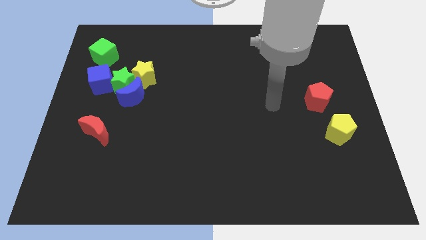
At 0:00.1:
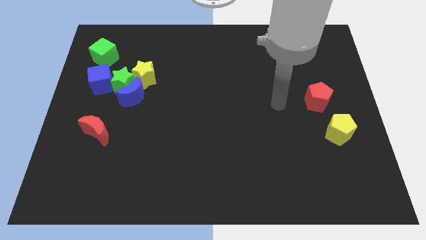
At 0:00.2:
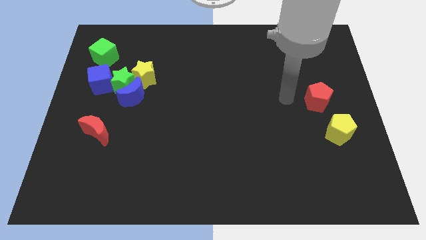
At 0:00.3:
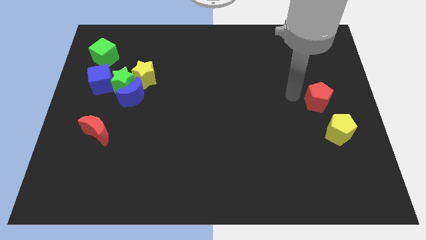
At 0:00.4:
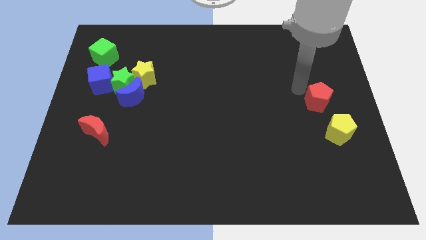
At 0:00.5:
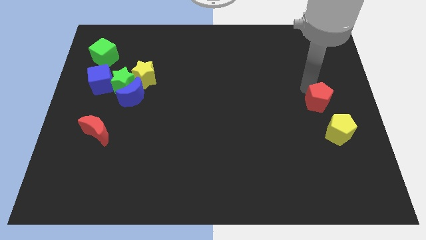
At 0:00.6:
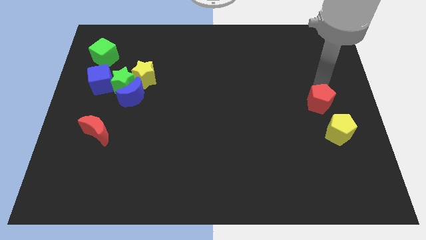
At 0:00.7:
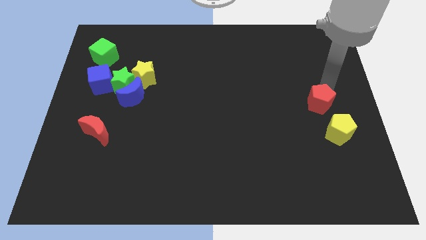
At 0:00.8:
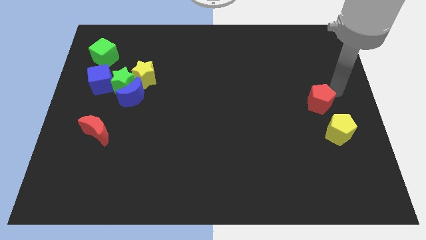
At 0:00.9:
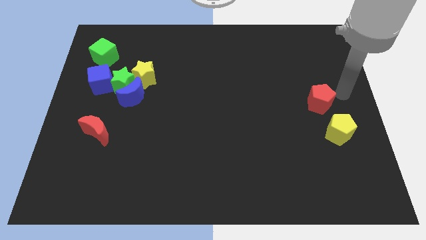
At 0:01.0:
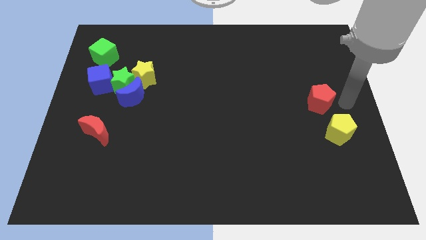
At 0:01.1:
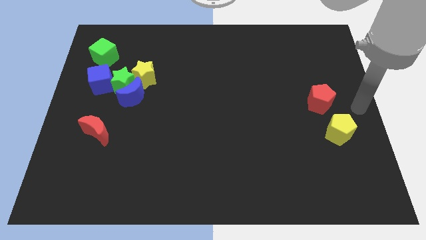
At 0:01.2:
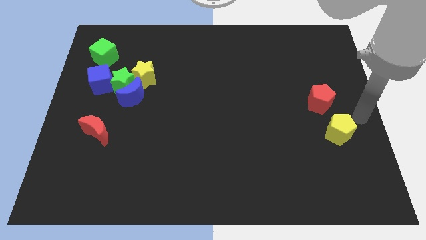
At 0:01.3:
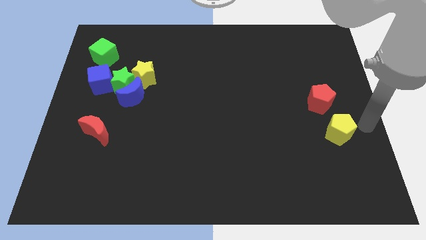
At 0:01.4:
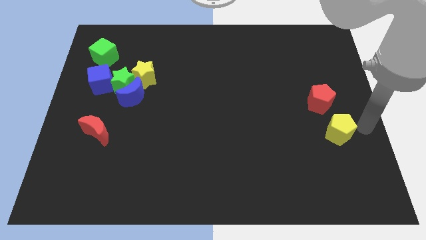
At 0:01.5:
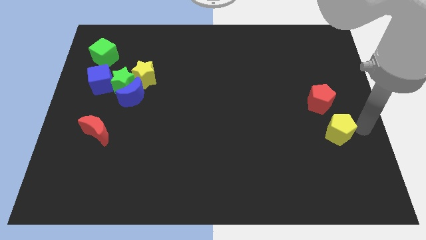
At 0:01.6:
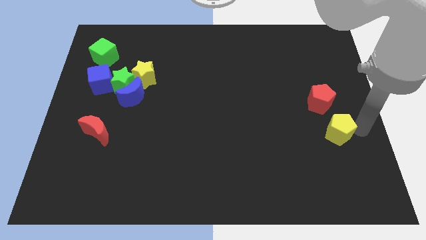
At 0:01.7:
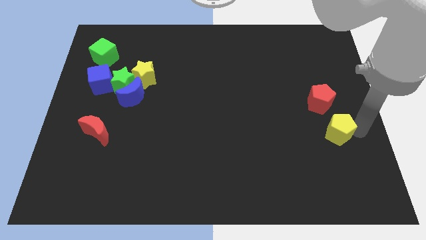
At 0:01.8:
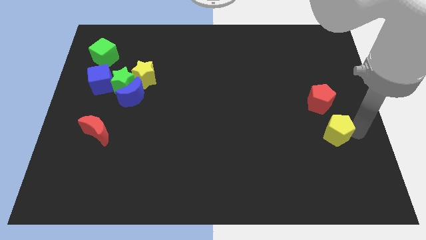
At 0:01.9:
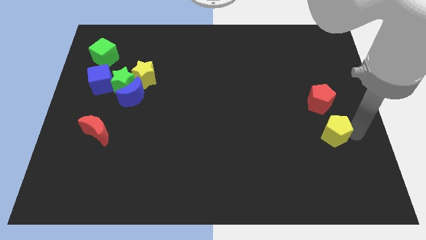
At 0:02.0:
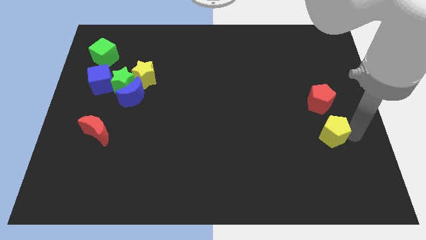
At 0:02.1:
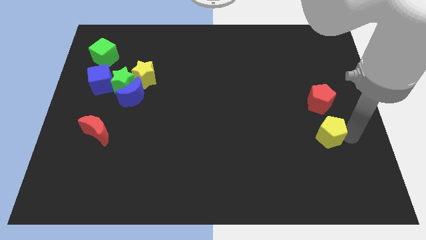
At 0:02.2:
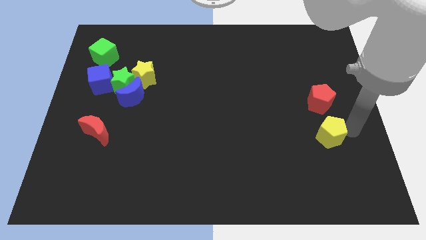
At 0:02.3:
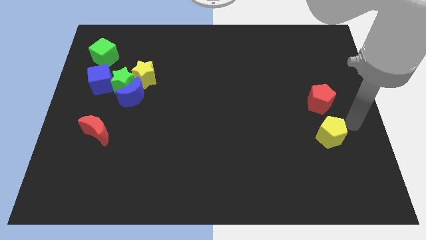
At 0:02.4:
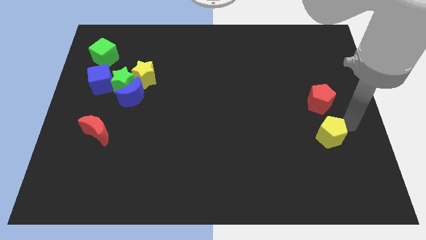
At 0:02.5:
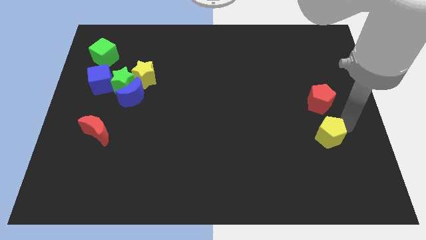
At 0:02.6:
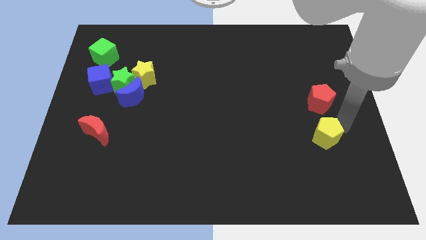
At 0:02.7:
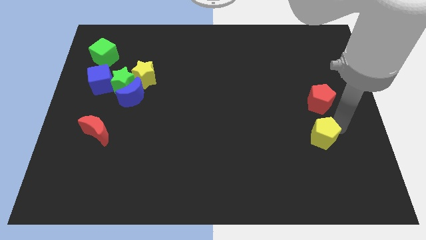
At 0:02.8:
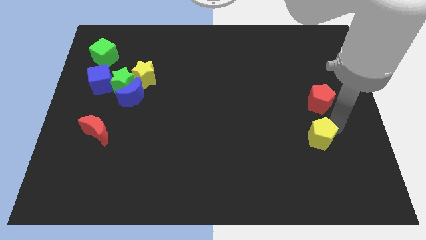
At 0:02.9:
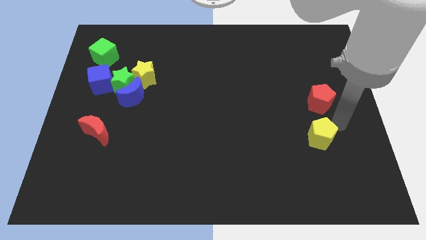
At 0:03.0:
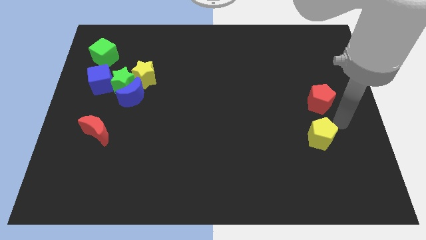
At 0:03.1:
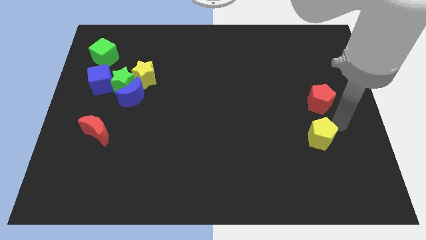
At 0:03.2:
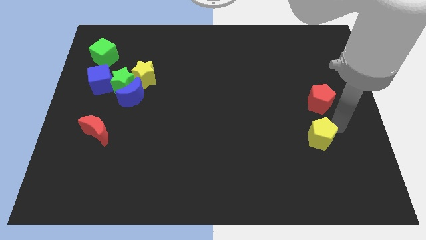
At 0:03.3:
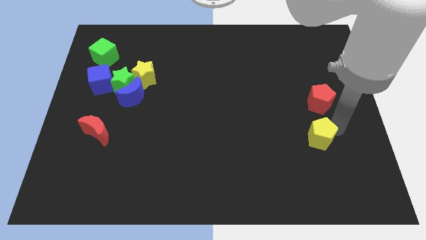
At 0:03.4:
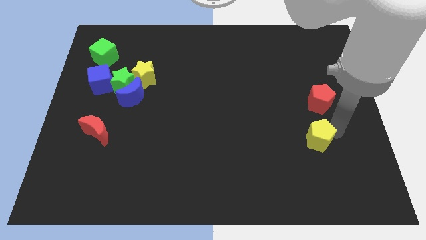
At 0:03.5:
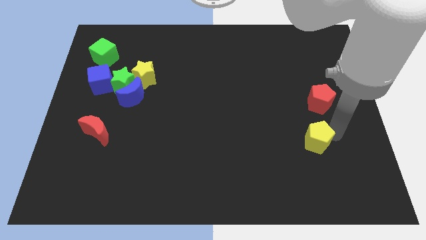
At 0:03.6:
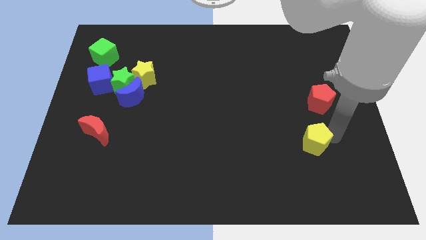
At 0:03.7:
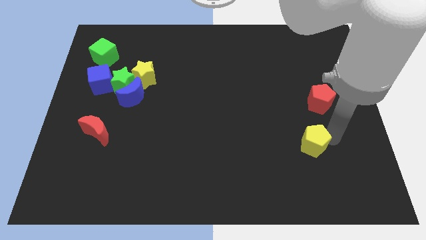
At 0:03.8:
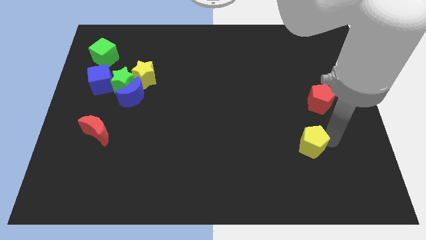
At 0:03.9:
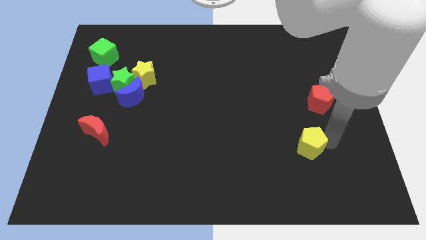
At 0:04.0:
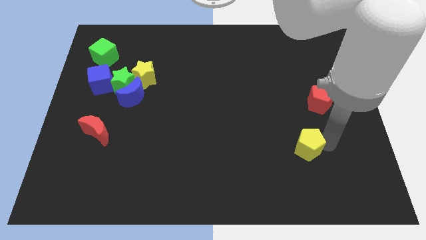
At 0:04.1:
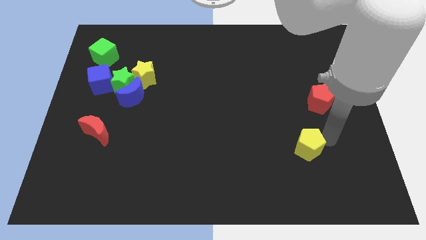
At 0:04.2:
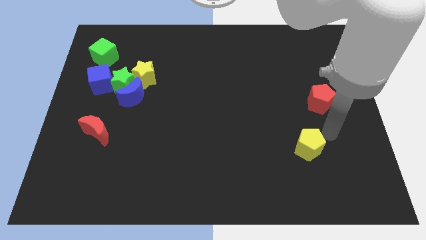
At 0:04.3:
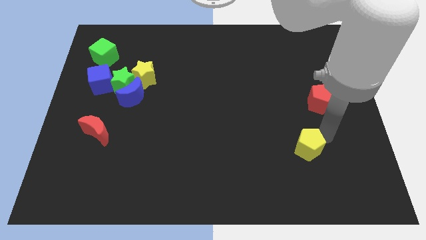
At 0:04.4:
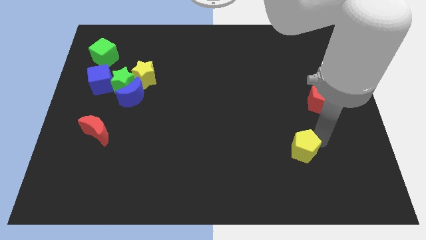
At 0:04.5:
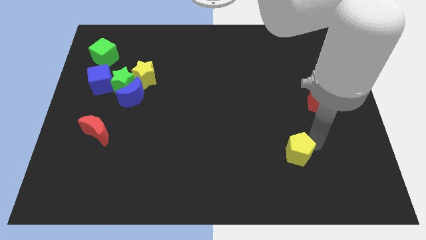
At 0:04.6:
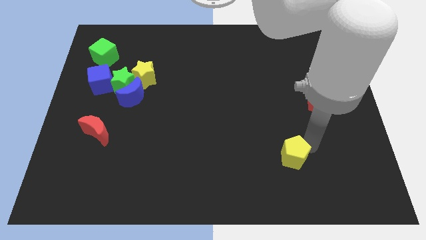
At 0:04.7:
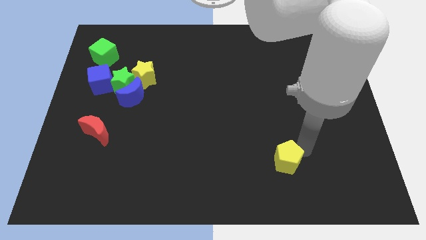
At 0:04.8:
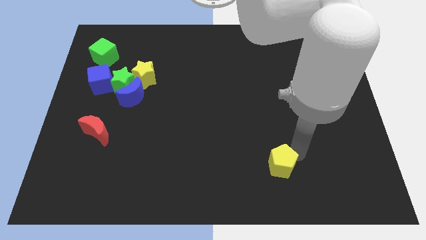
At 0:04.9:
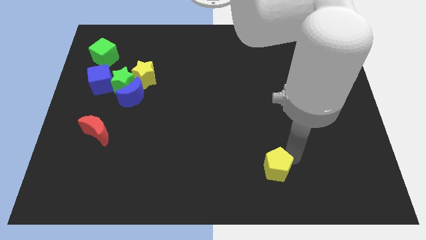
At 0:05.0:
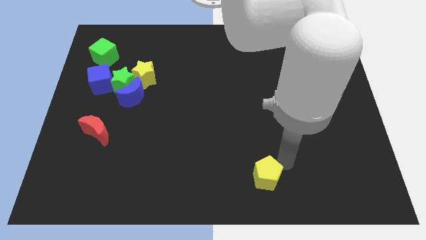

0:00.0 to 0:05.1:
slide the yellow pentagon to the bottom

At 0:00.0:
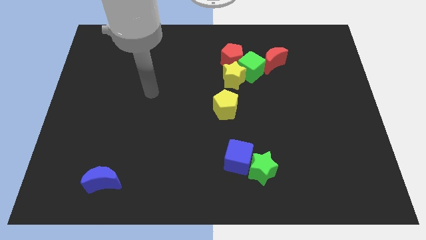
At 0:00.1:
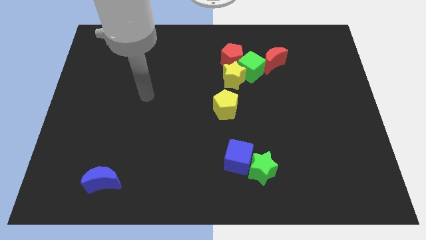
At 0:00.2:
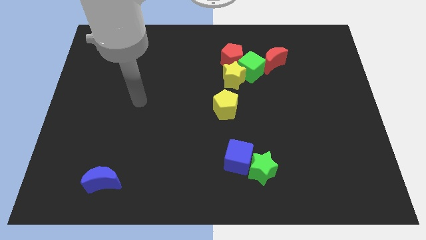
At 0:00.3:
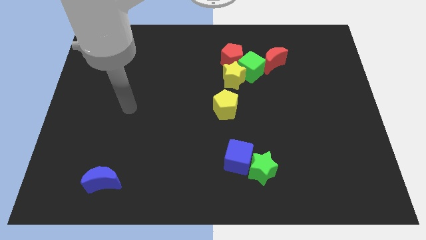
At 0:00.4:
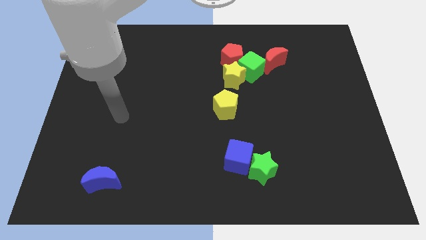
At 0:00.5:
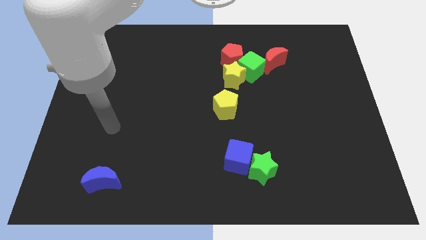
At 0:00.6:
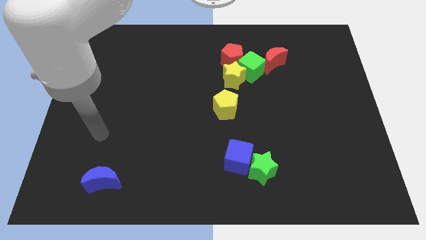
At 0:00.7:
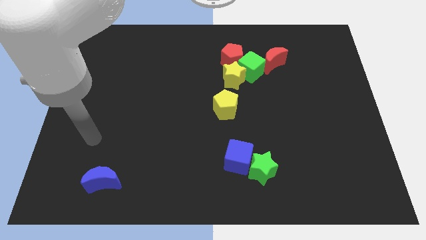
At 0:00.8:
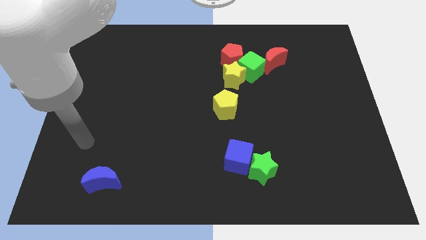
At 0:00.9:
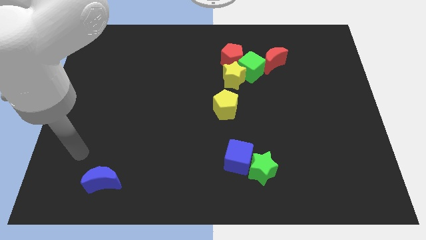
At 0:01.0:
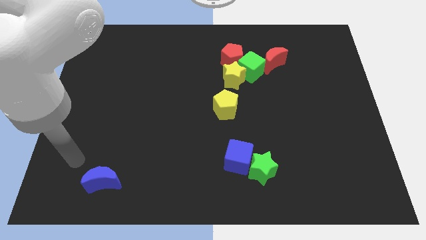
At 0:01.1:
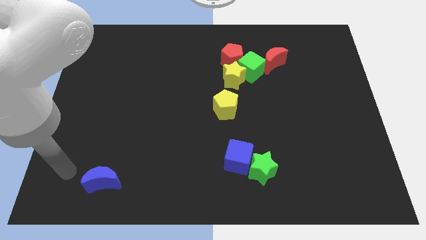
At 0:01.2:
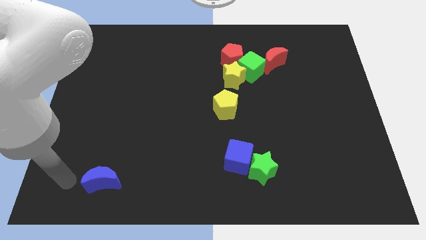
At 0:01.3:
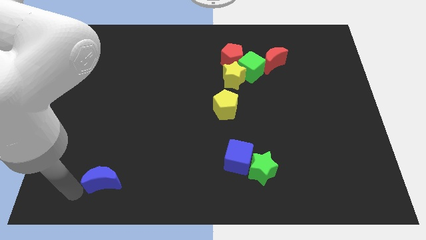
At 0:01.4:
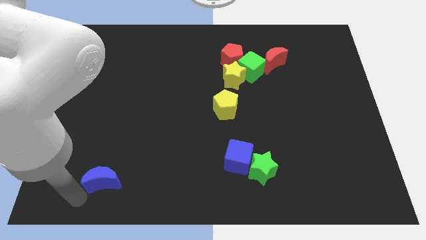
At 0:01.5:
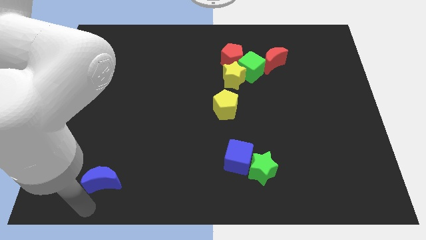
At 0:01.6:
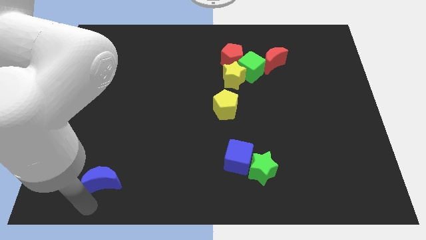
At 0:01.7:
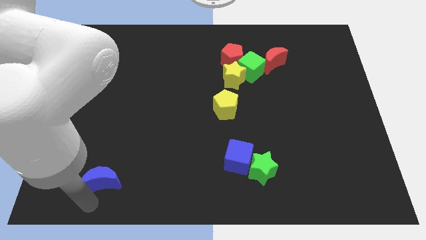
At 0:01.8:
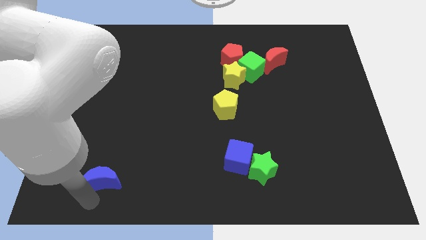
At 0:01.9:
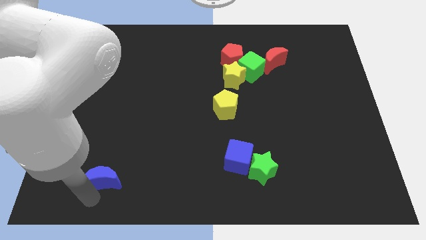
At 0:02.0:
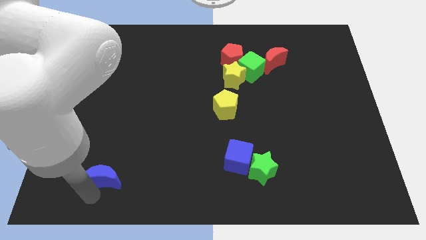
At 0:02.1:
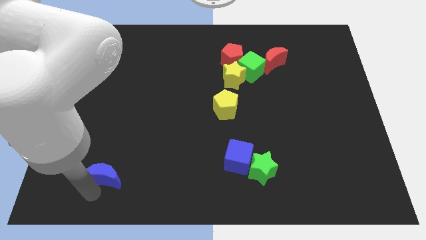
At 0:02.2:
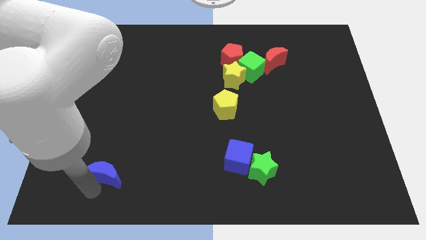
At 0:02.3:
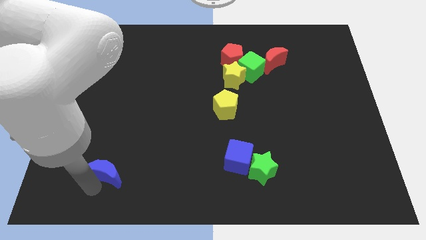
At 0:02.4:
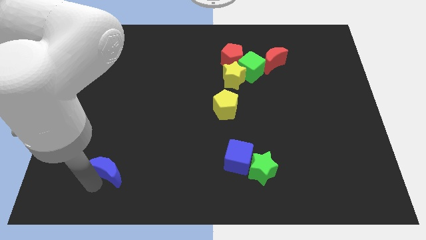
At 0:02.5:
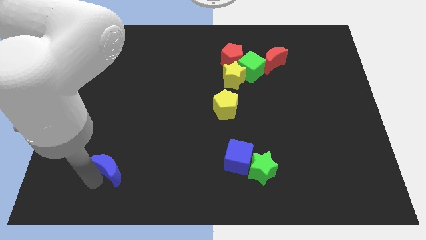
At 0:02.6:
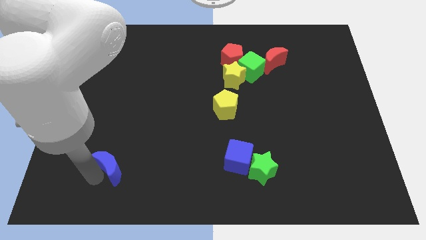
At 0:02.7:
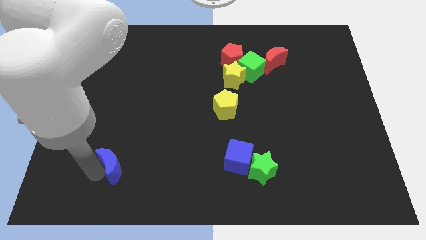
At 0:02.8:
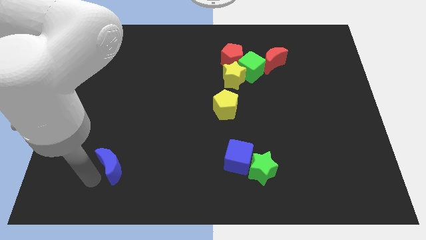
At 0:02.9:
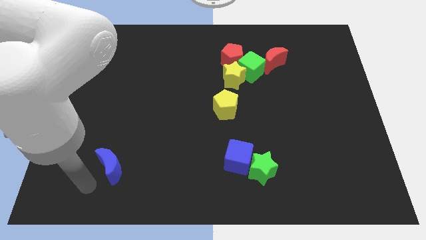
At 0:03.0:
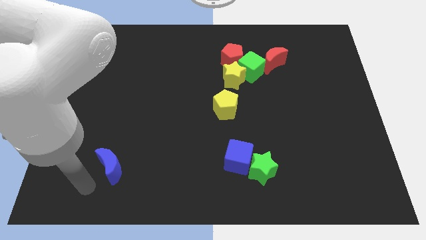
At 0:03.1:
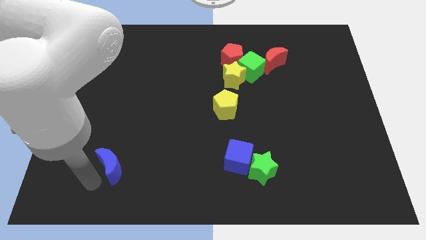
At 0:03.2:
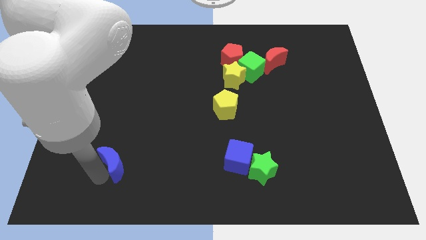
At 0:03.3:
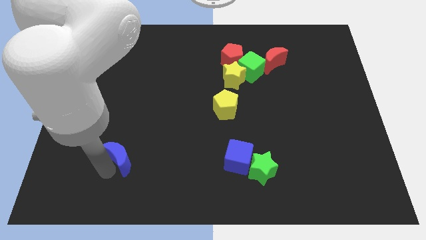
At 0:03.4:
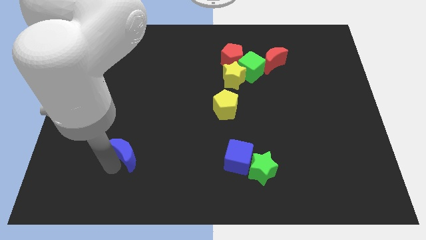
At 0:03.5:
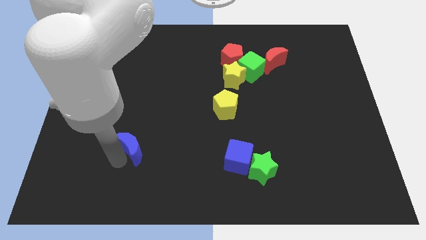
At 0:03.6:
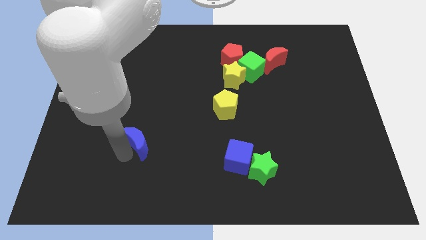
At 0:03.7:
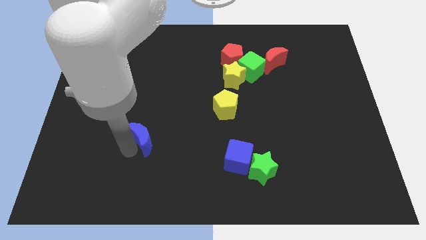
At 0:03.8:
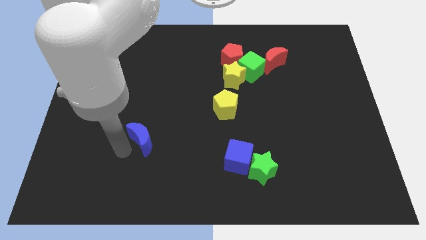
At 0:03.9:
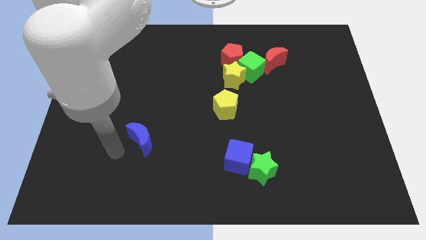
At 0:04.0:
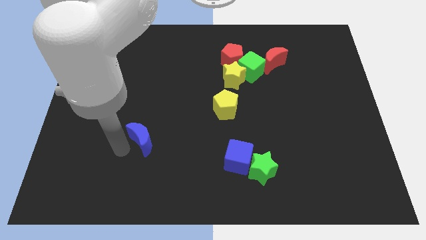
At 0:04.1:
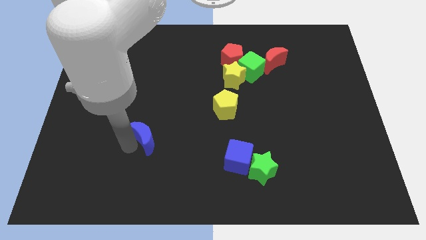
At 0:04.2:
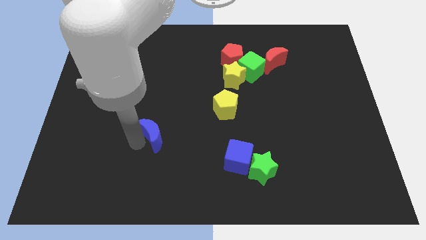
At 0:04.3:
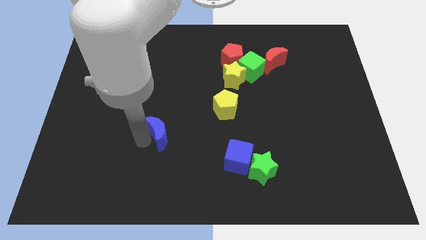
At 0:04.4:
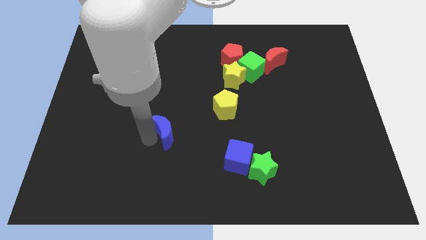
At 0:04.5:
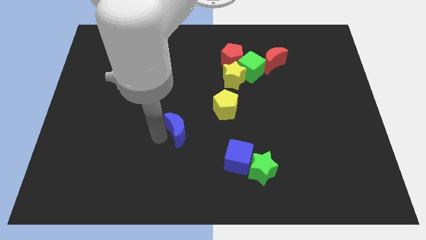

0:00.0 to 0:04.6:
push the blue moon to the center of the board
